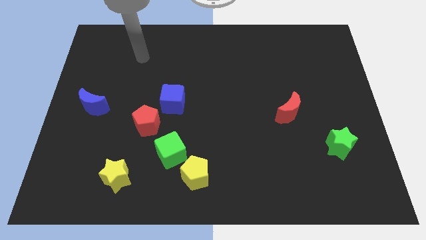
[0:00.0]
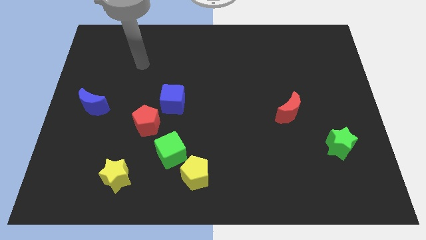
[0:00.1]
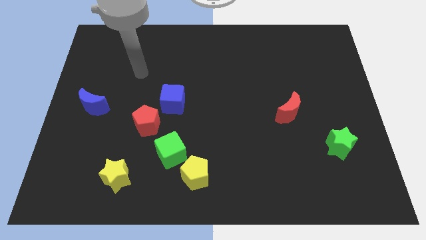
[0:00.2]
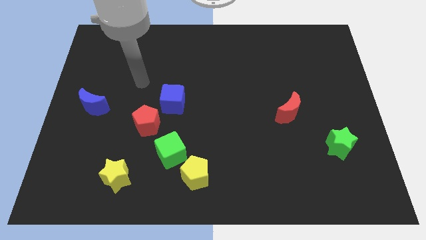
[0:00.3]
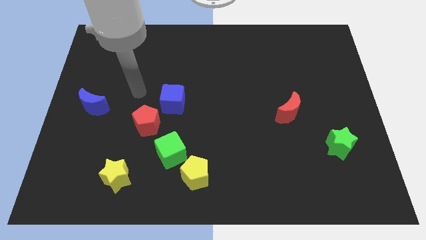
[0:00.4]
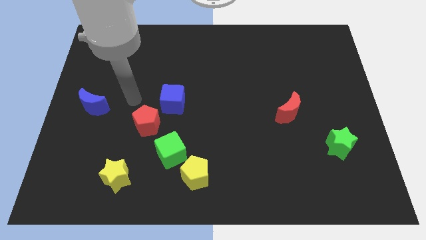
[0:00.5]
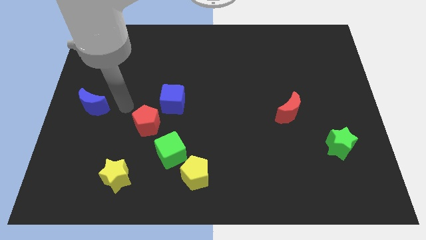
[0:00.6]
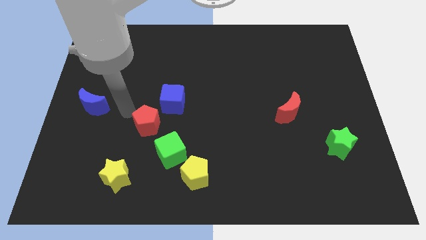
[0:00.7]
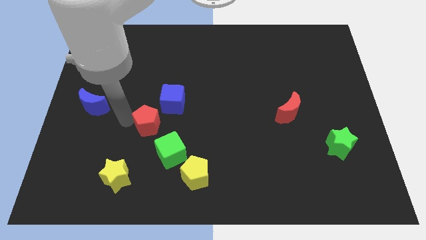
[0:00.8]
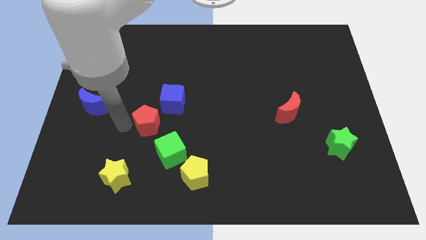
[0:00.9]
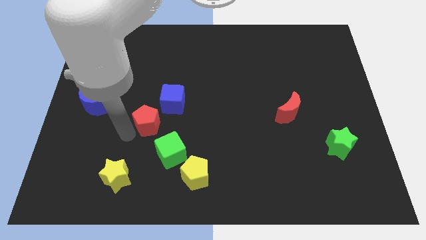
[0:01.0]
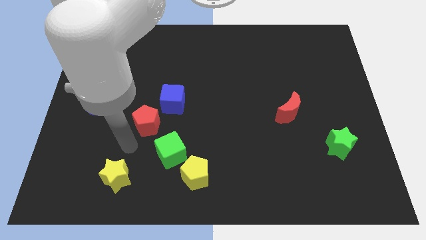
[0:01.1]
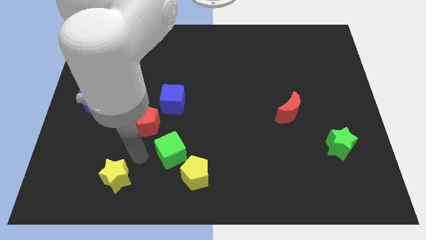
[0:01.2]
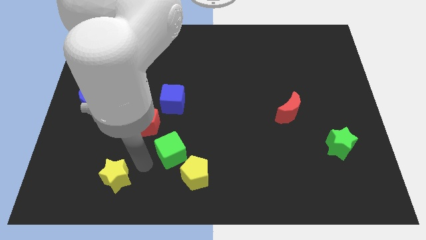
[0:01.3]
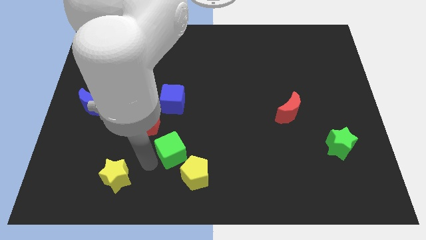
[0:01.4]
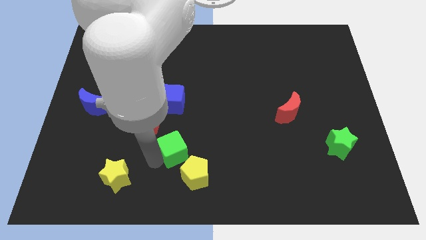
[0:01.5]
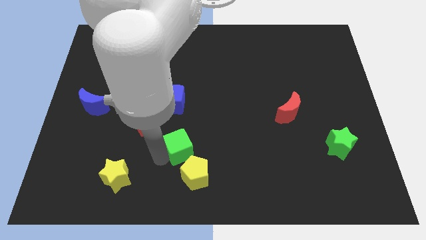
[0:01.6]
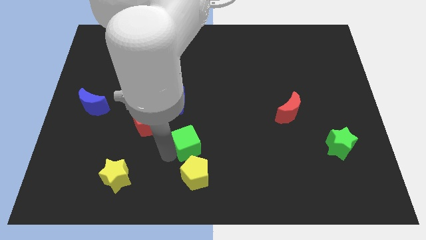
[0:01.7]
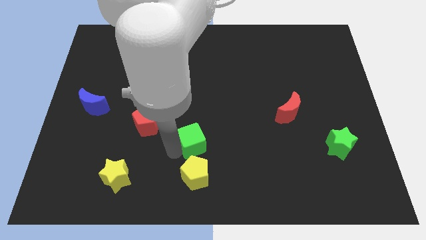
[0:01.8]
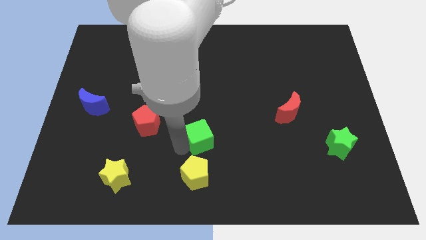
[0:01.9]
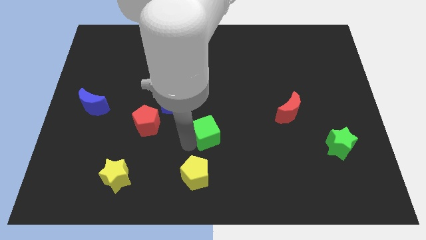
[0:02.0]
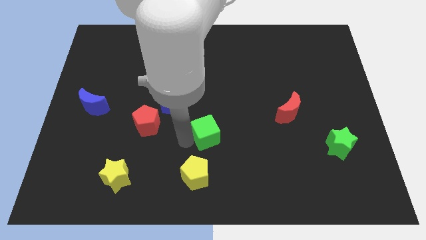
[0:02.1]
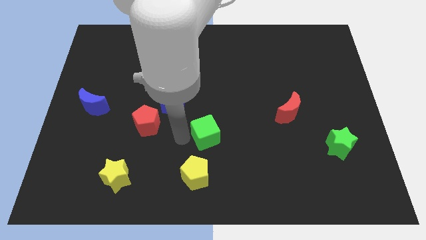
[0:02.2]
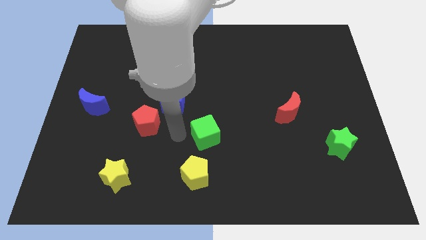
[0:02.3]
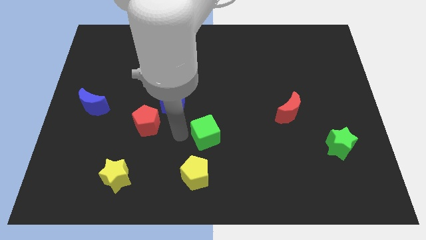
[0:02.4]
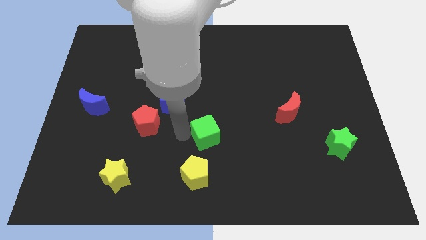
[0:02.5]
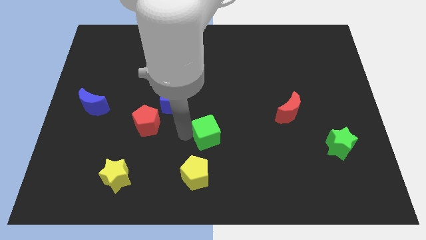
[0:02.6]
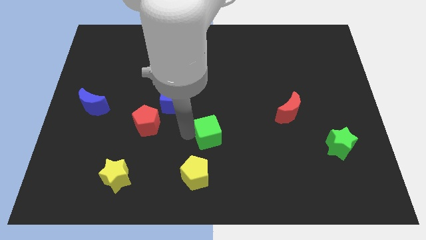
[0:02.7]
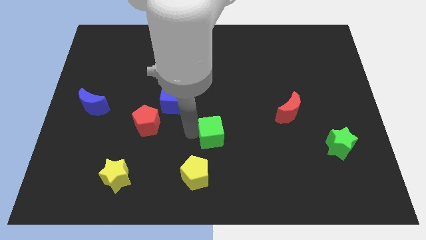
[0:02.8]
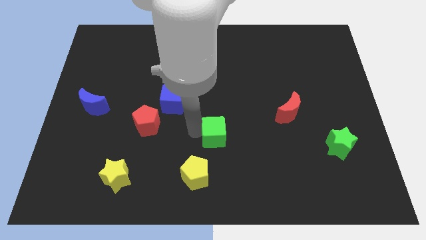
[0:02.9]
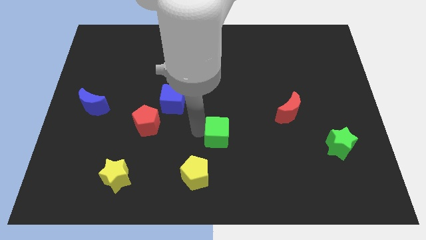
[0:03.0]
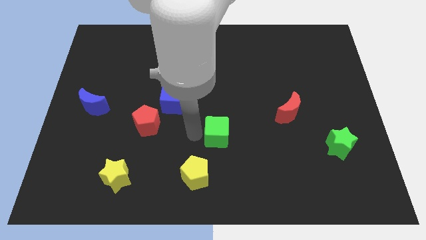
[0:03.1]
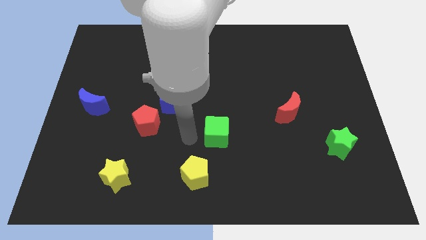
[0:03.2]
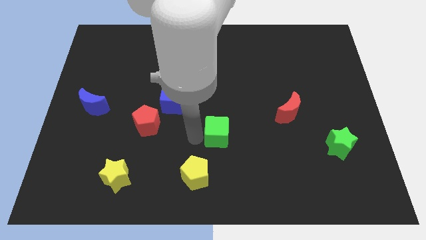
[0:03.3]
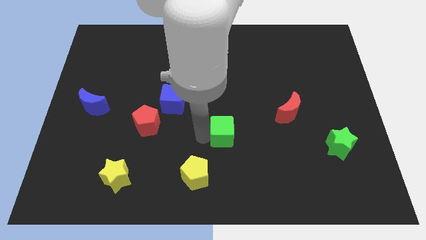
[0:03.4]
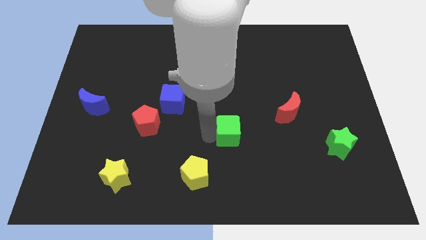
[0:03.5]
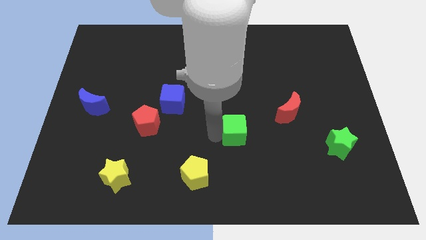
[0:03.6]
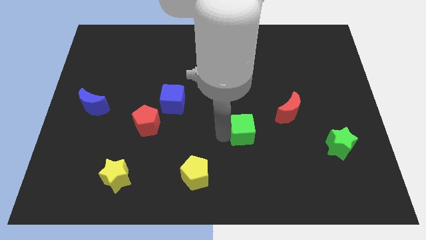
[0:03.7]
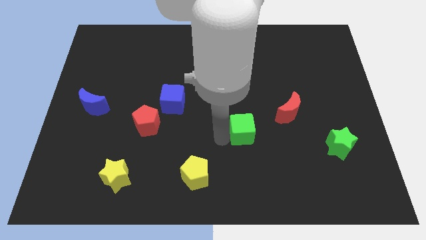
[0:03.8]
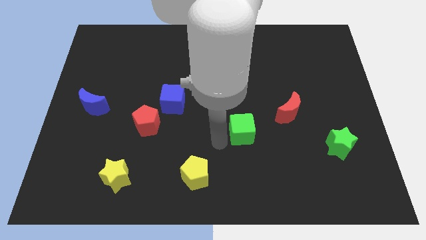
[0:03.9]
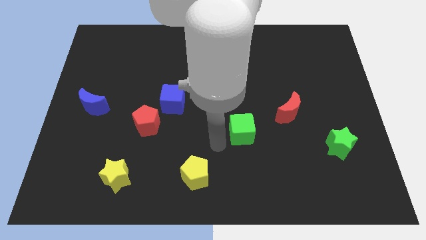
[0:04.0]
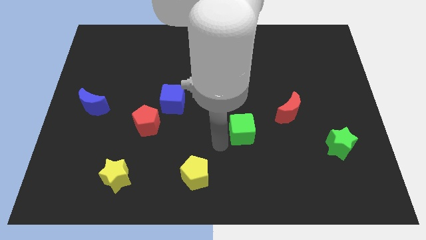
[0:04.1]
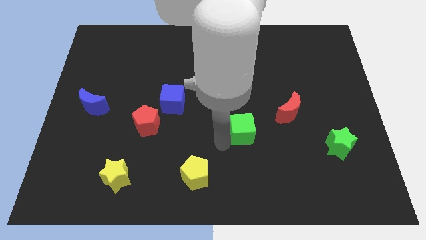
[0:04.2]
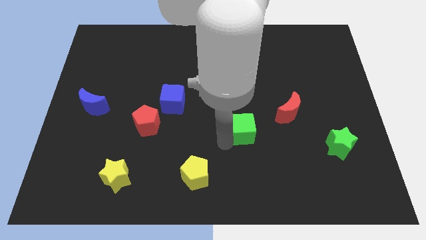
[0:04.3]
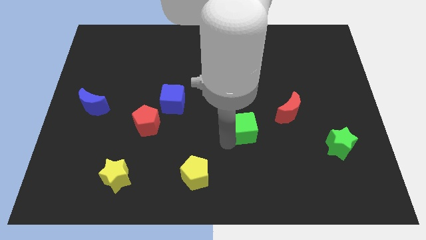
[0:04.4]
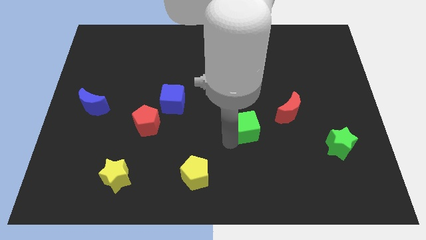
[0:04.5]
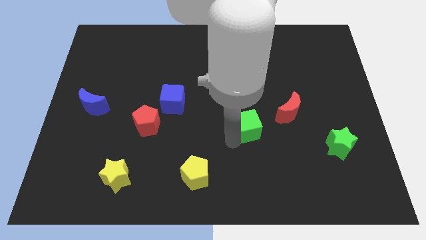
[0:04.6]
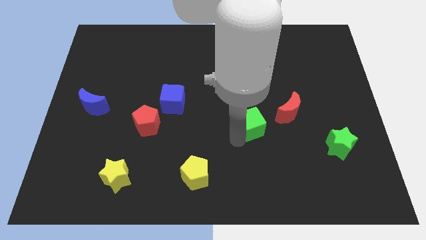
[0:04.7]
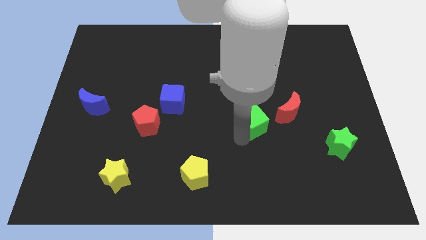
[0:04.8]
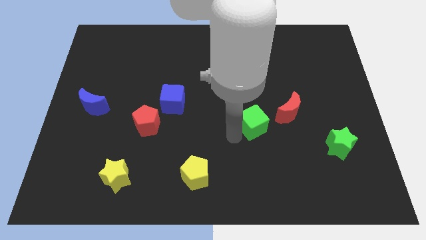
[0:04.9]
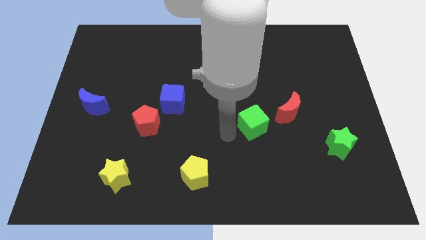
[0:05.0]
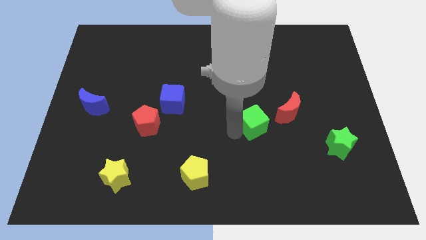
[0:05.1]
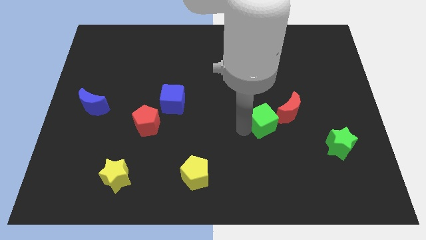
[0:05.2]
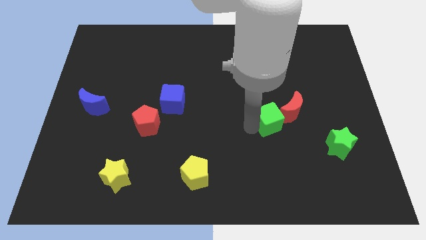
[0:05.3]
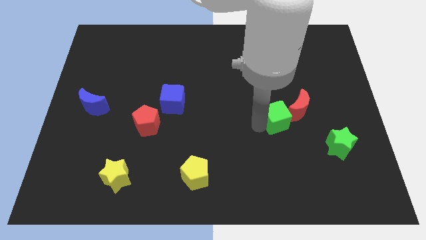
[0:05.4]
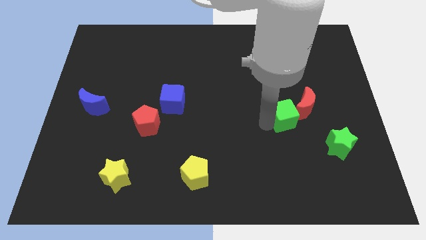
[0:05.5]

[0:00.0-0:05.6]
slide the green cube next to the red moon

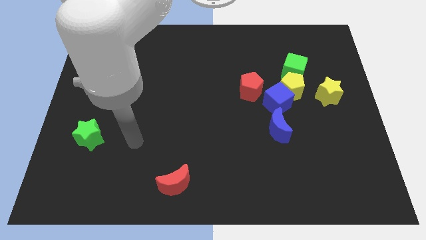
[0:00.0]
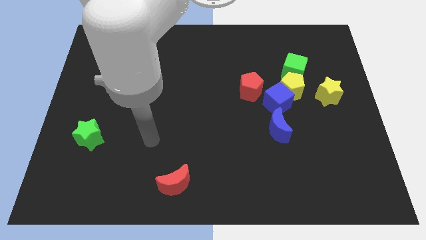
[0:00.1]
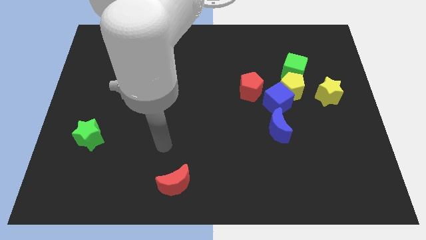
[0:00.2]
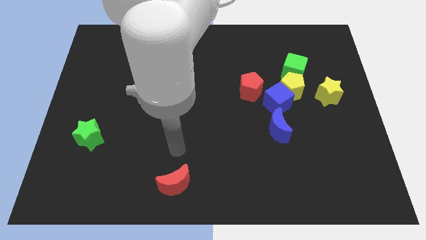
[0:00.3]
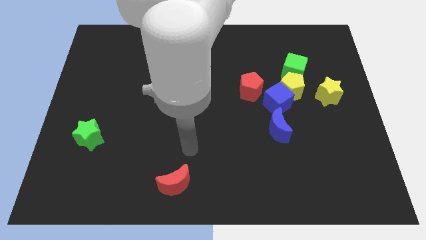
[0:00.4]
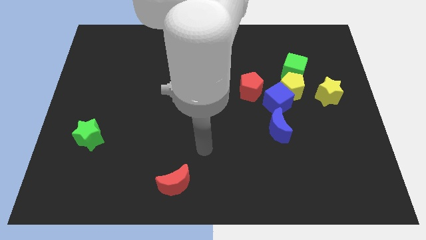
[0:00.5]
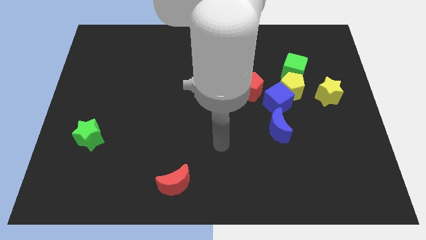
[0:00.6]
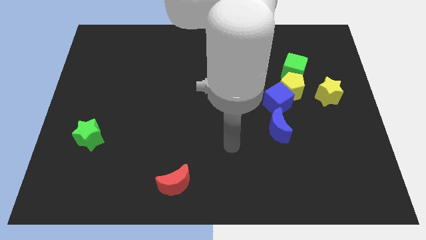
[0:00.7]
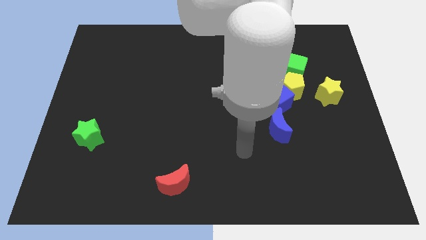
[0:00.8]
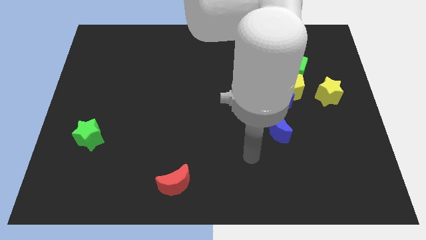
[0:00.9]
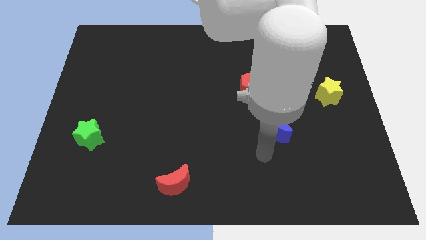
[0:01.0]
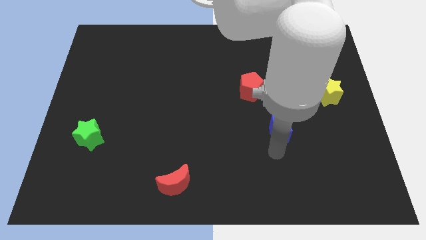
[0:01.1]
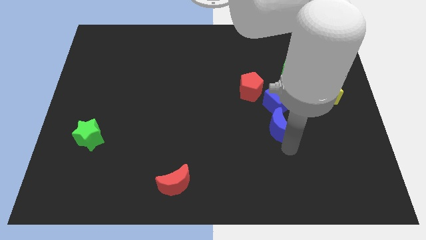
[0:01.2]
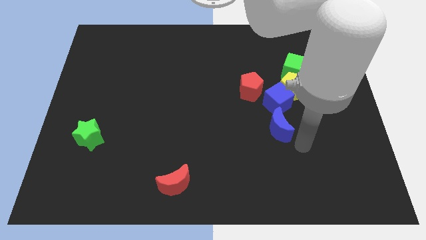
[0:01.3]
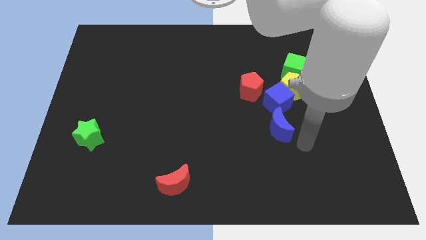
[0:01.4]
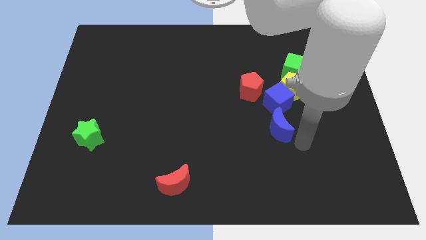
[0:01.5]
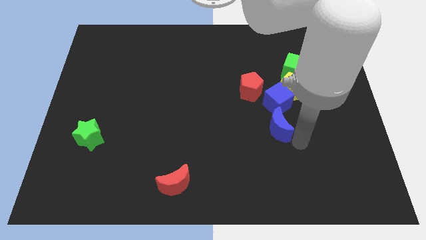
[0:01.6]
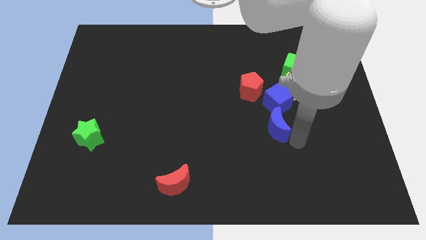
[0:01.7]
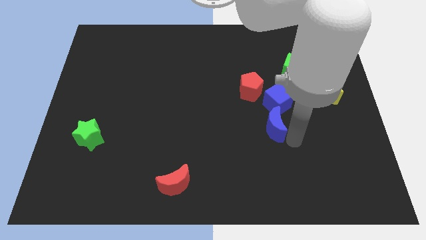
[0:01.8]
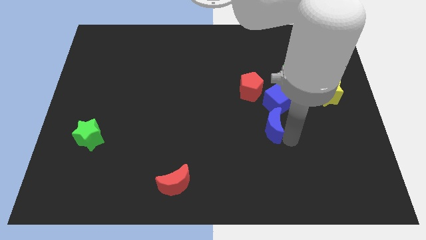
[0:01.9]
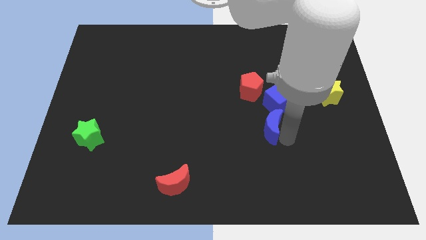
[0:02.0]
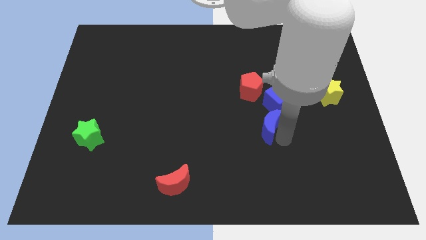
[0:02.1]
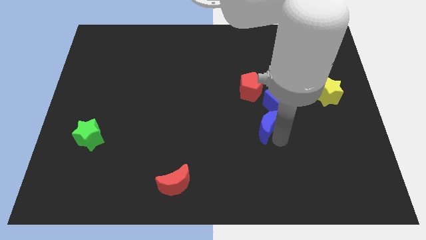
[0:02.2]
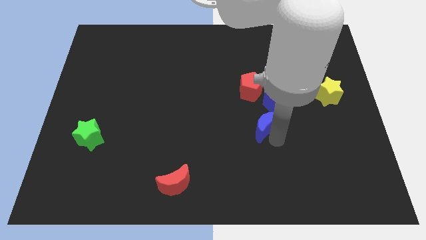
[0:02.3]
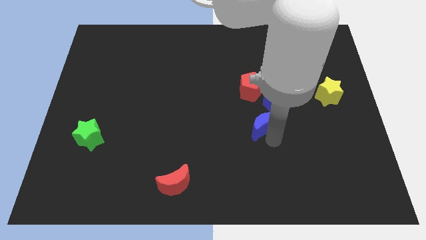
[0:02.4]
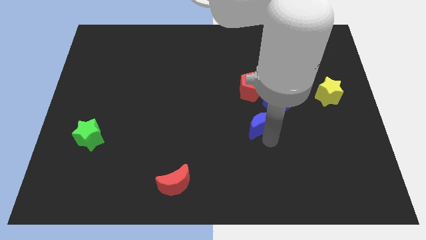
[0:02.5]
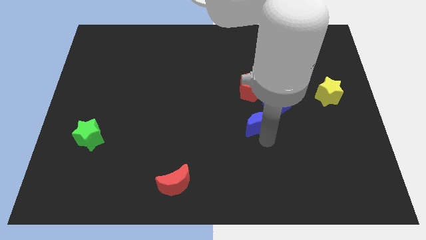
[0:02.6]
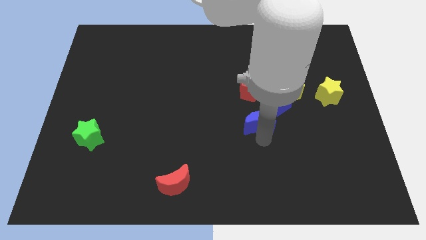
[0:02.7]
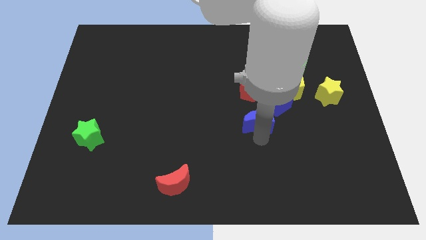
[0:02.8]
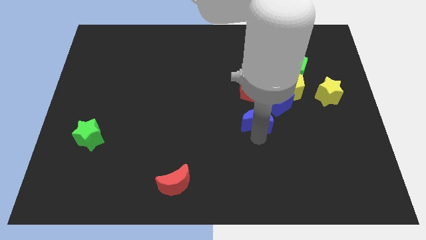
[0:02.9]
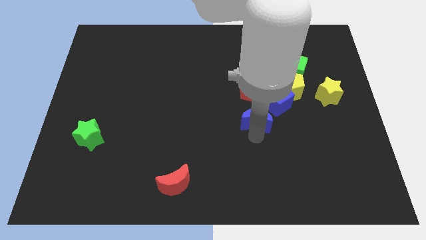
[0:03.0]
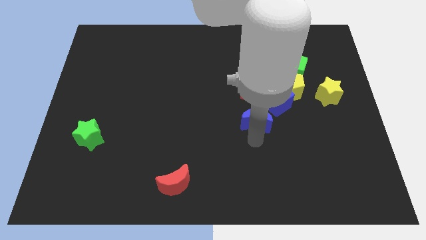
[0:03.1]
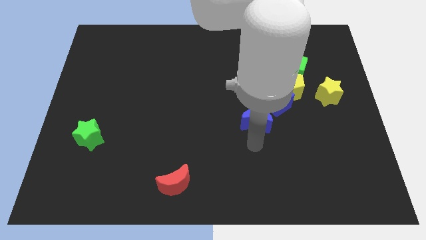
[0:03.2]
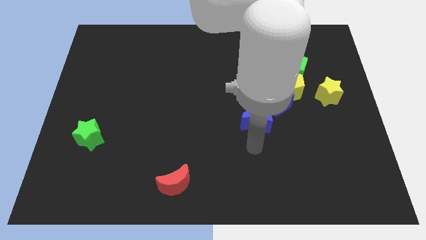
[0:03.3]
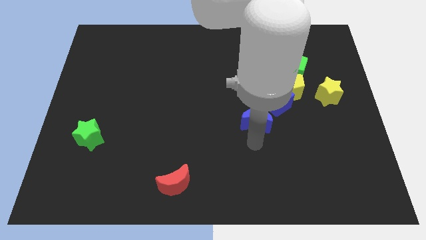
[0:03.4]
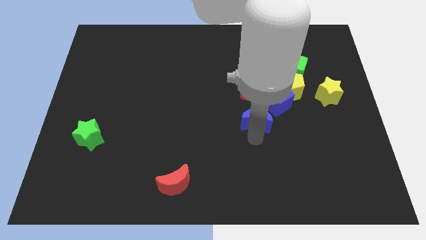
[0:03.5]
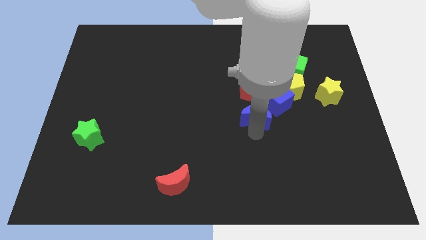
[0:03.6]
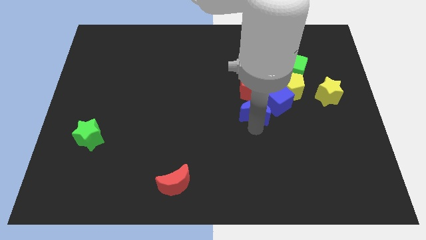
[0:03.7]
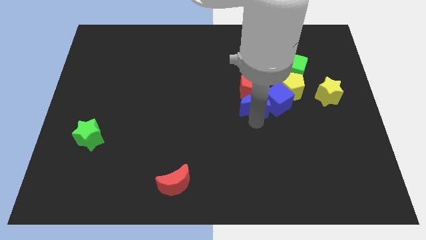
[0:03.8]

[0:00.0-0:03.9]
move the blue moon to the red pentagon
